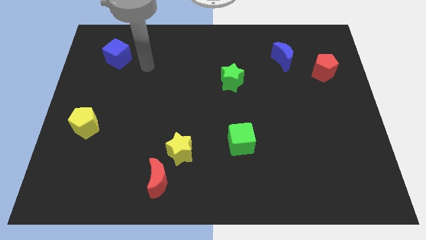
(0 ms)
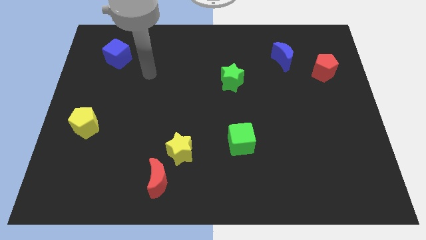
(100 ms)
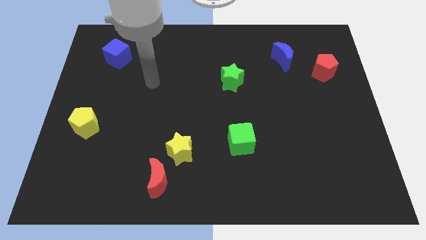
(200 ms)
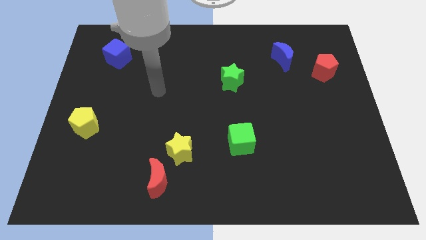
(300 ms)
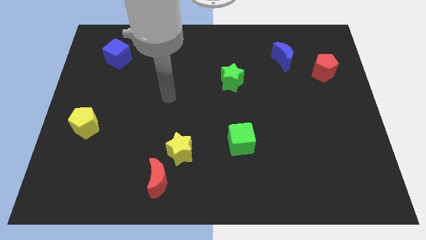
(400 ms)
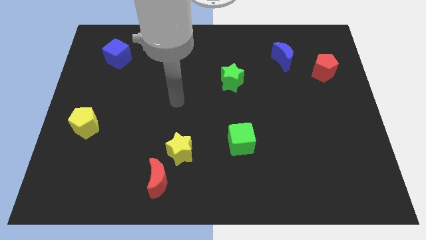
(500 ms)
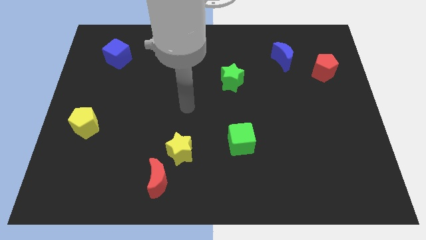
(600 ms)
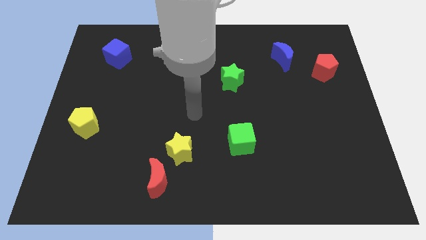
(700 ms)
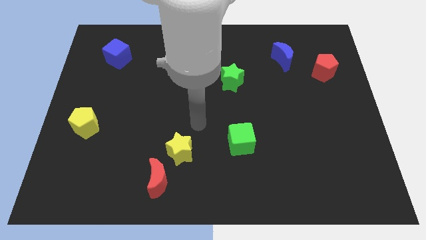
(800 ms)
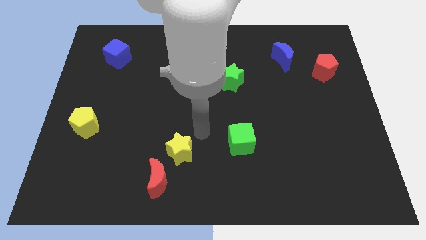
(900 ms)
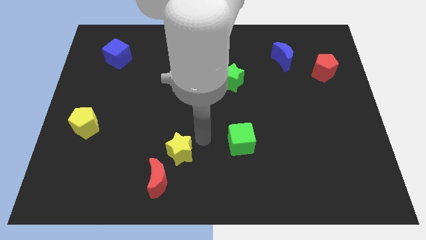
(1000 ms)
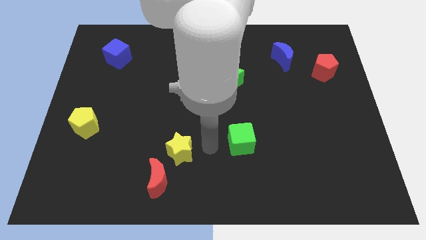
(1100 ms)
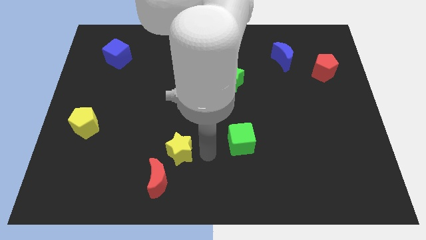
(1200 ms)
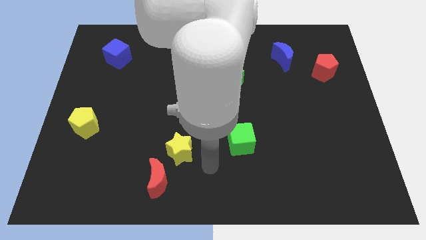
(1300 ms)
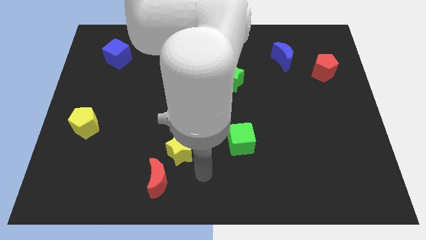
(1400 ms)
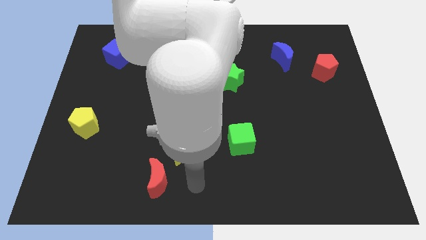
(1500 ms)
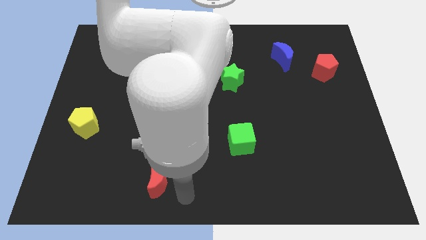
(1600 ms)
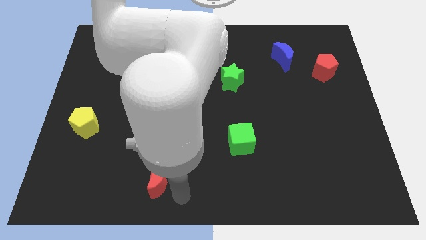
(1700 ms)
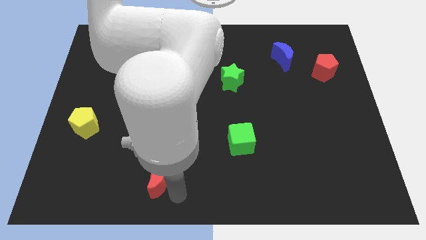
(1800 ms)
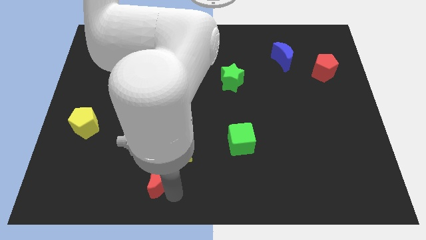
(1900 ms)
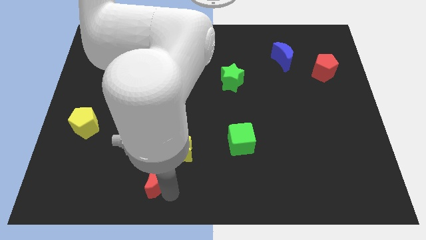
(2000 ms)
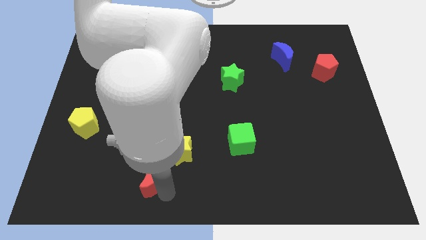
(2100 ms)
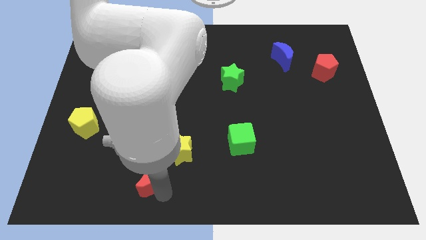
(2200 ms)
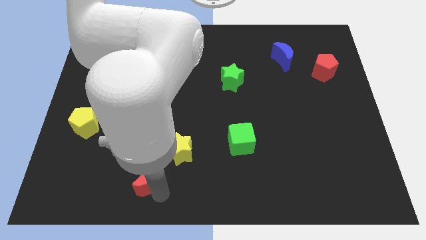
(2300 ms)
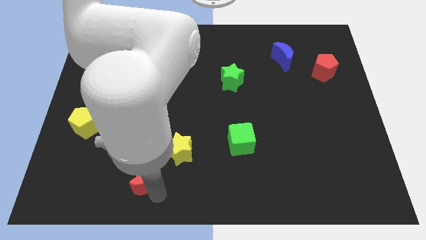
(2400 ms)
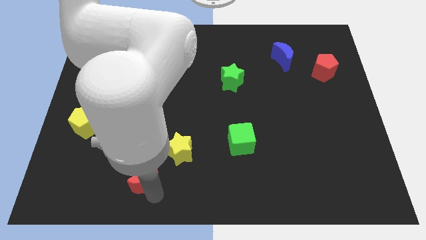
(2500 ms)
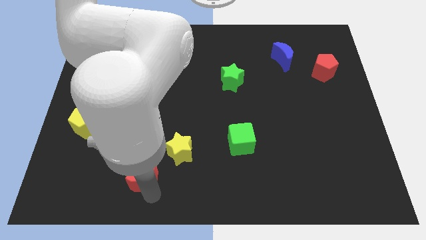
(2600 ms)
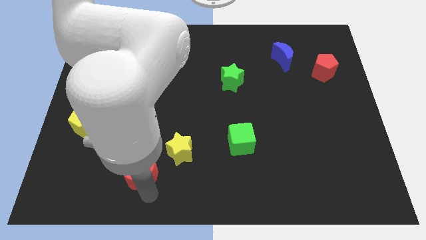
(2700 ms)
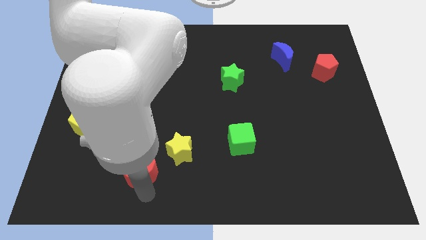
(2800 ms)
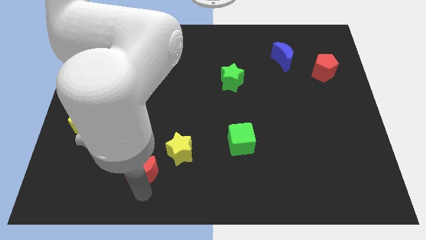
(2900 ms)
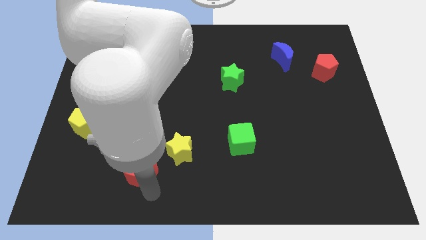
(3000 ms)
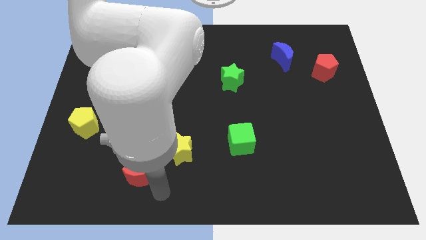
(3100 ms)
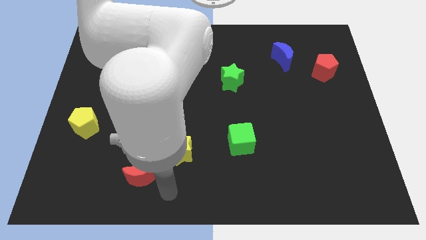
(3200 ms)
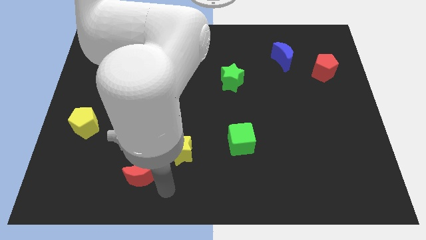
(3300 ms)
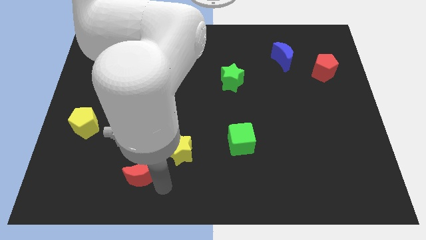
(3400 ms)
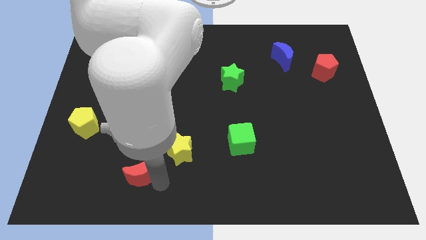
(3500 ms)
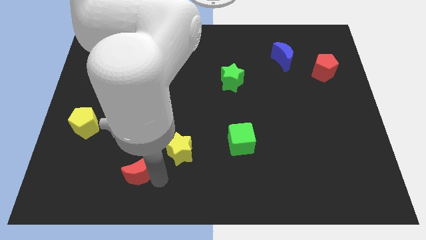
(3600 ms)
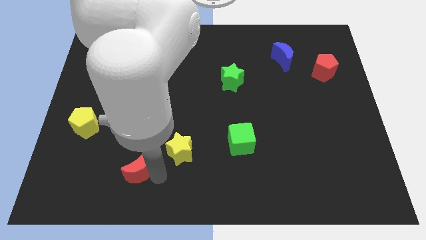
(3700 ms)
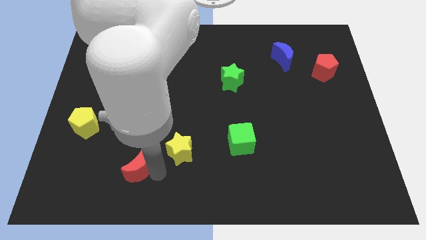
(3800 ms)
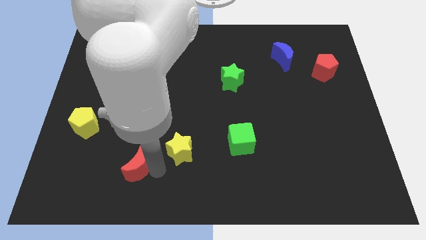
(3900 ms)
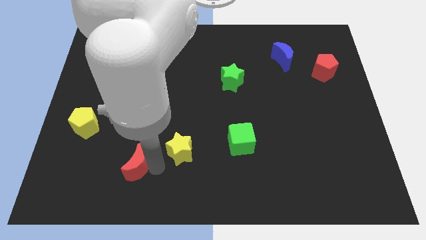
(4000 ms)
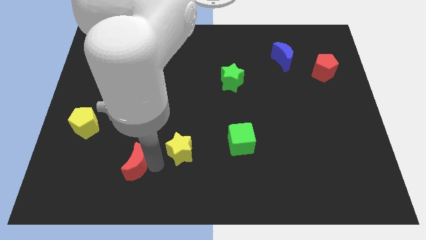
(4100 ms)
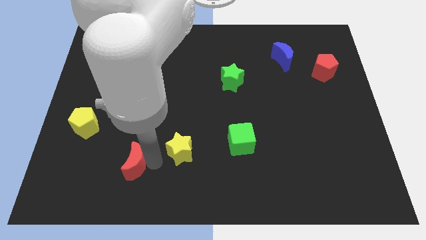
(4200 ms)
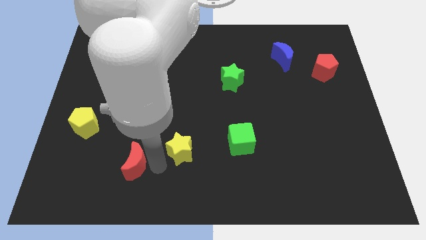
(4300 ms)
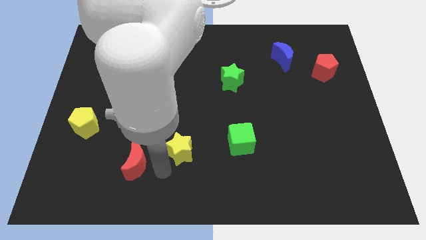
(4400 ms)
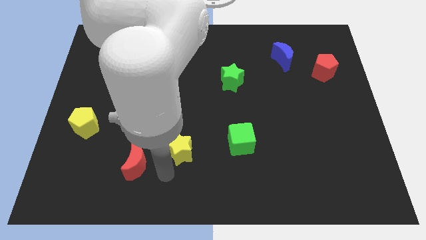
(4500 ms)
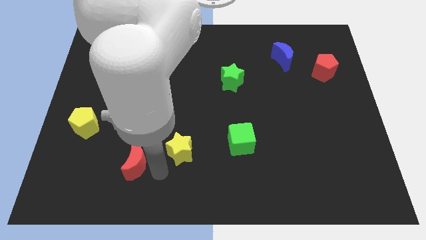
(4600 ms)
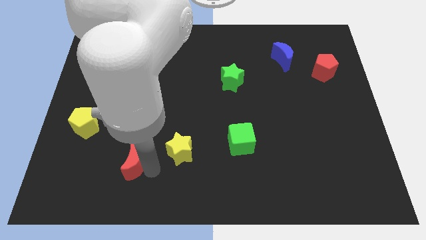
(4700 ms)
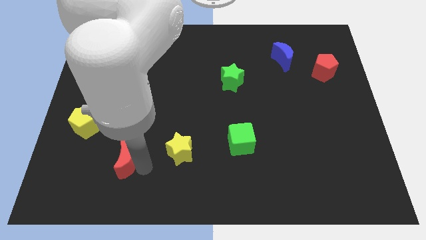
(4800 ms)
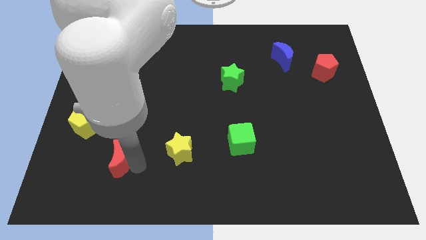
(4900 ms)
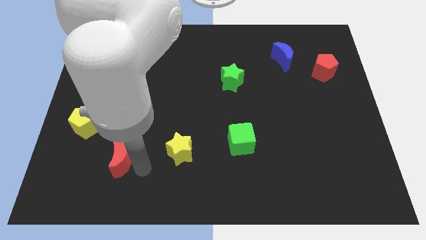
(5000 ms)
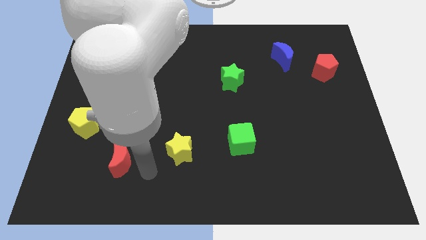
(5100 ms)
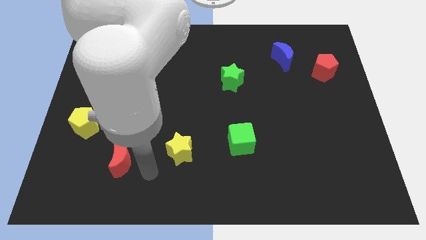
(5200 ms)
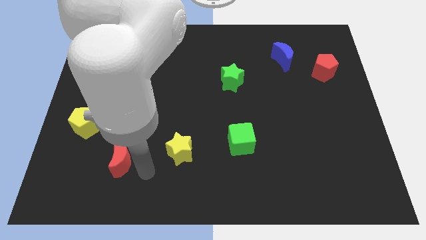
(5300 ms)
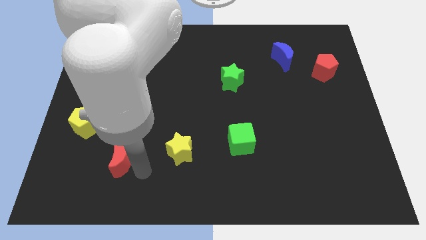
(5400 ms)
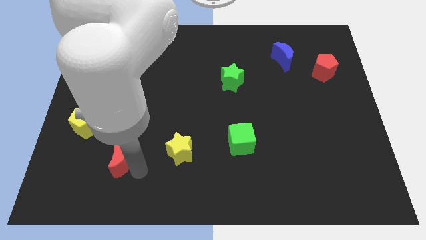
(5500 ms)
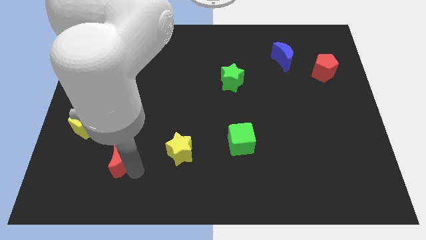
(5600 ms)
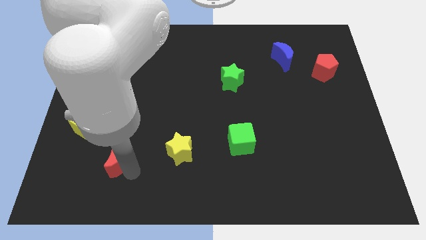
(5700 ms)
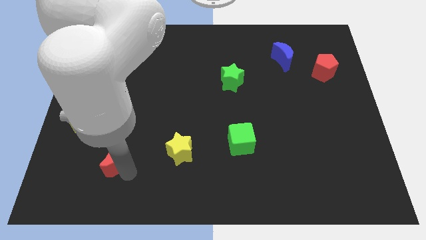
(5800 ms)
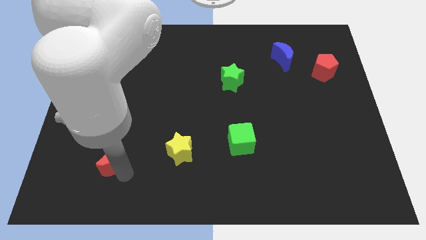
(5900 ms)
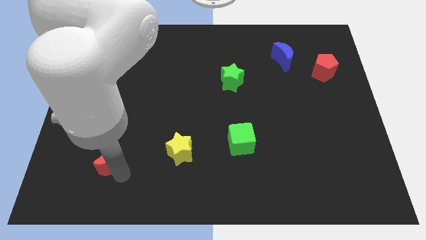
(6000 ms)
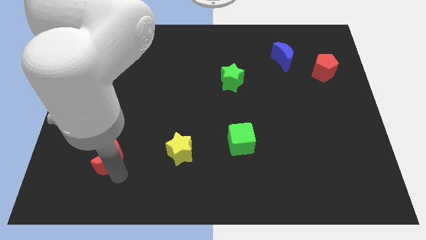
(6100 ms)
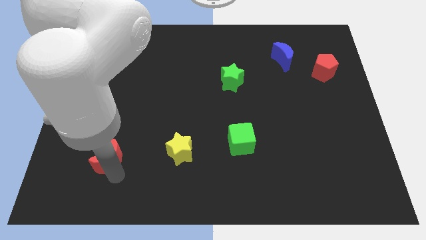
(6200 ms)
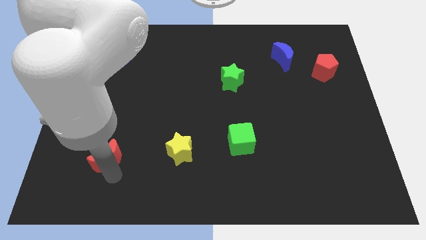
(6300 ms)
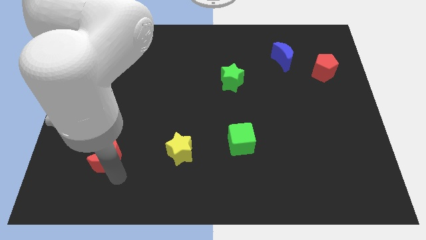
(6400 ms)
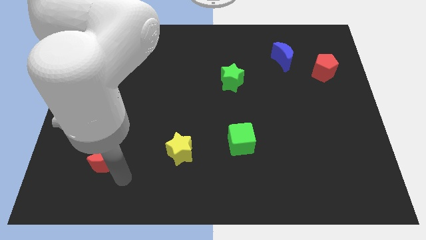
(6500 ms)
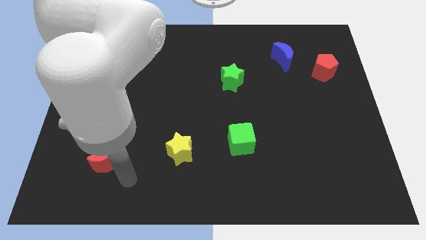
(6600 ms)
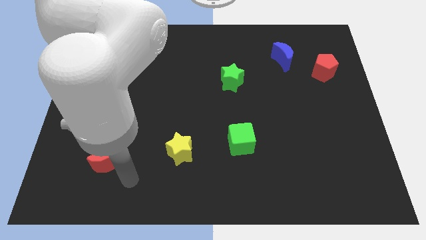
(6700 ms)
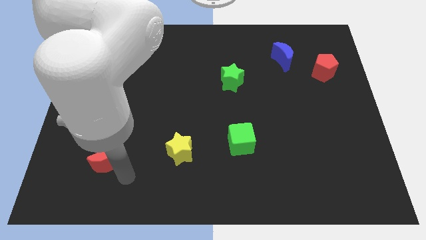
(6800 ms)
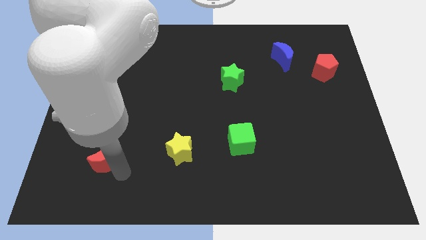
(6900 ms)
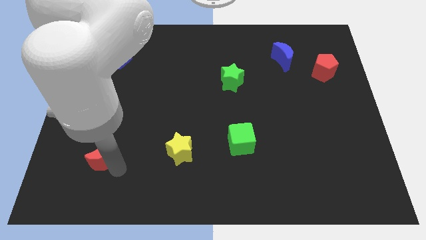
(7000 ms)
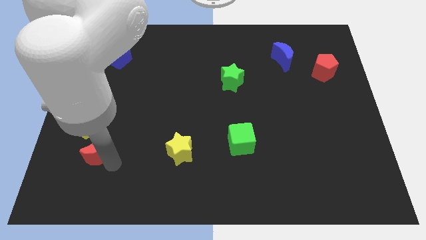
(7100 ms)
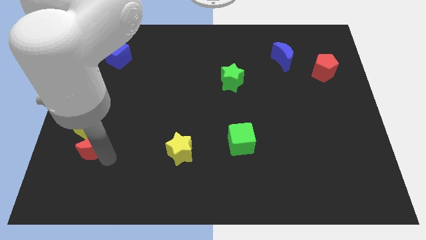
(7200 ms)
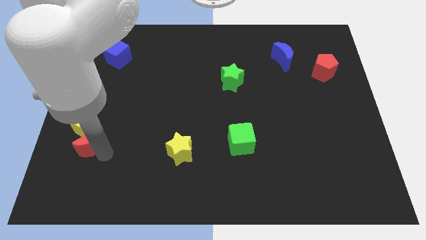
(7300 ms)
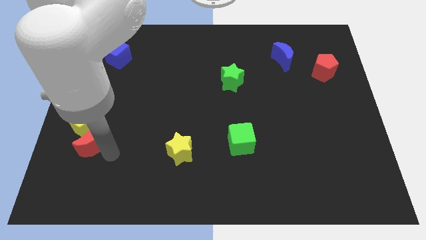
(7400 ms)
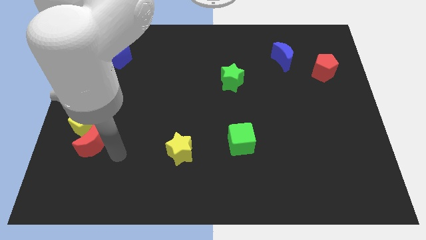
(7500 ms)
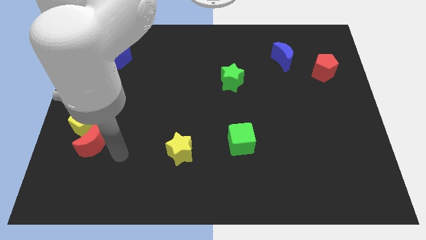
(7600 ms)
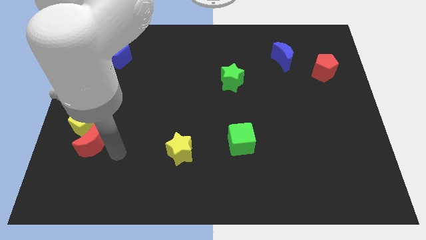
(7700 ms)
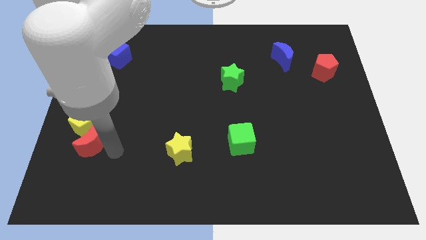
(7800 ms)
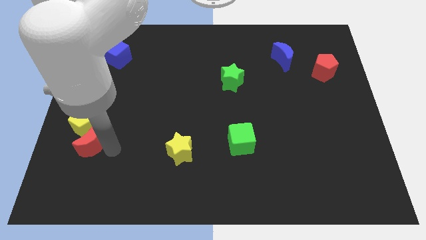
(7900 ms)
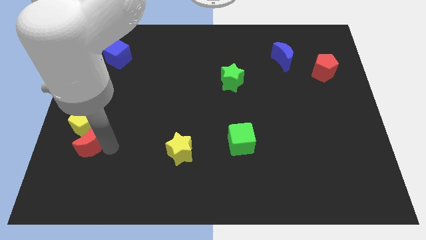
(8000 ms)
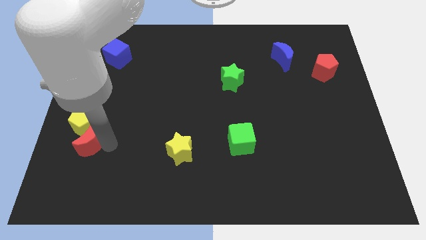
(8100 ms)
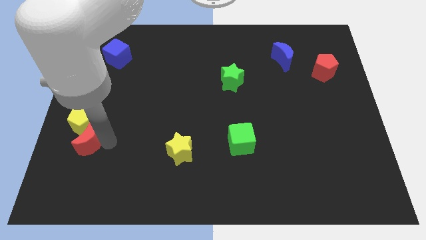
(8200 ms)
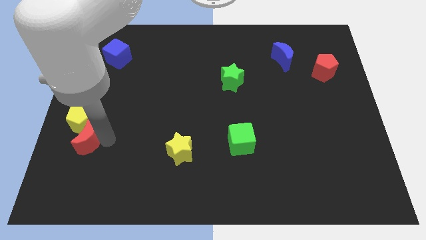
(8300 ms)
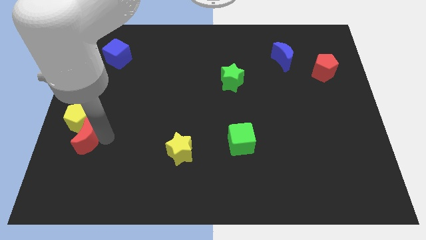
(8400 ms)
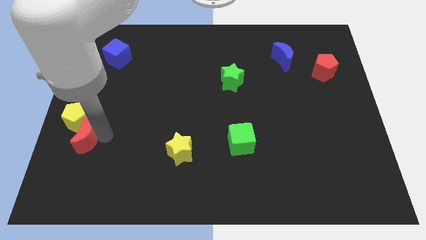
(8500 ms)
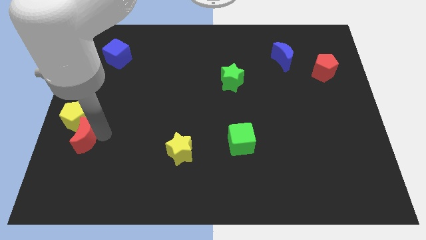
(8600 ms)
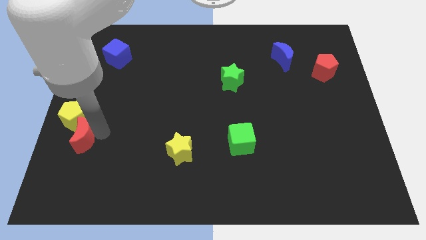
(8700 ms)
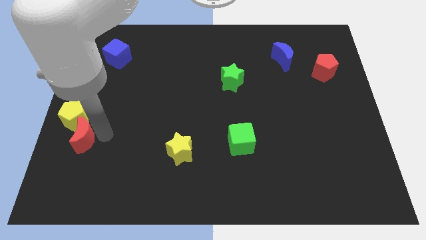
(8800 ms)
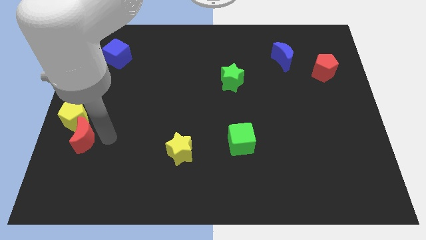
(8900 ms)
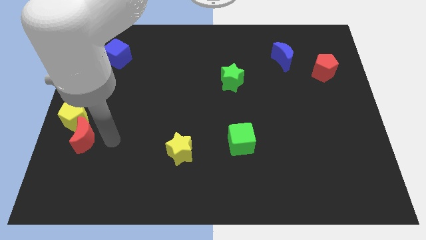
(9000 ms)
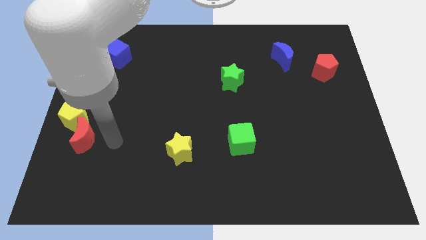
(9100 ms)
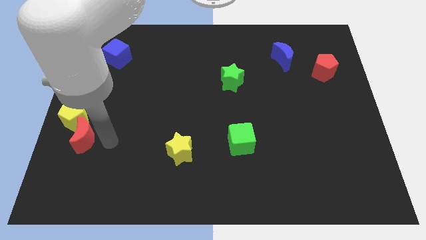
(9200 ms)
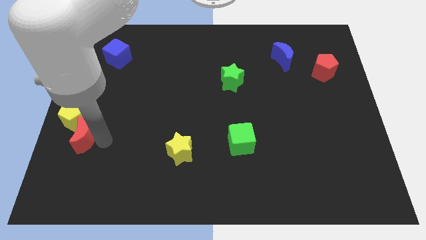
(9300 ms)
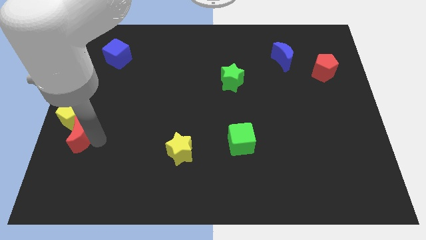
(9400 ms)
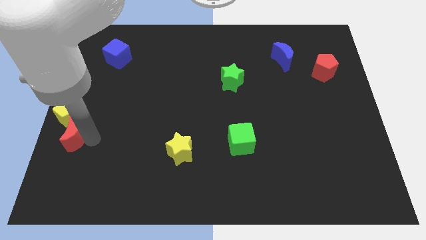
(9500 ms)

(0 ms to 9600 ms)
push the red moon to the center left
